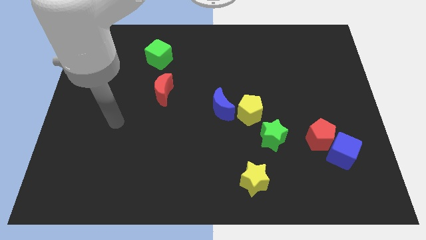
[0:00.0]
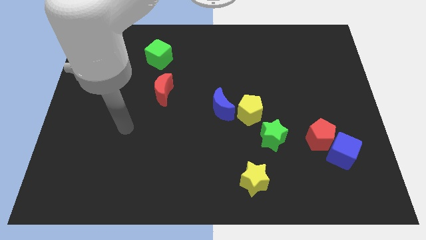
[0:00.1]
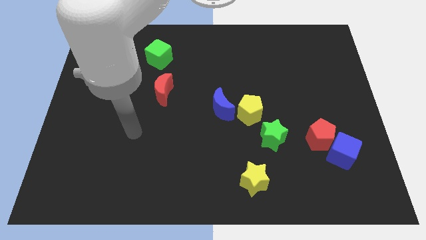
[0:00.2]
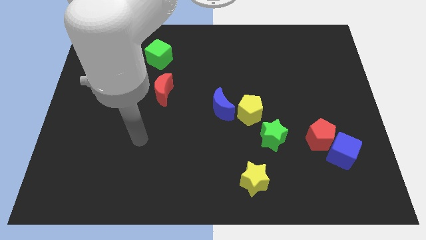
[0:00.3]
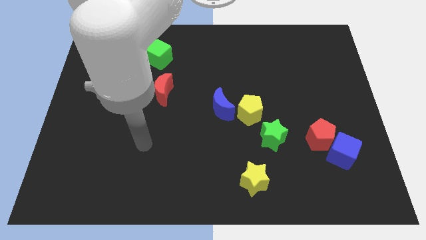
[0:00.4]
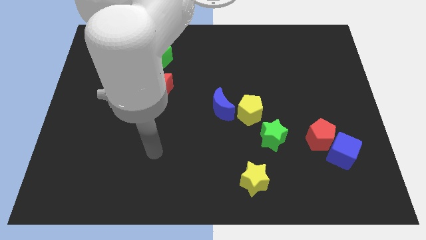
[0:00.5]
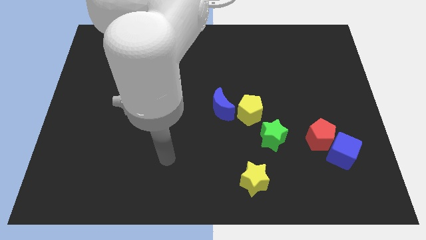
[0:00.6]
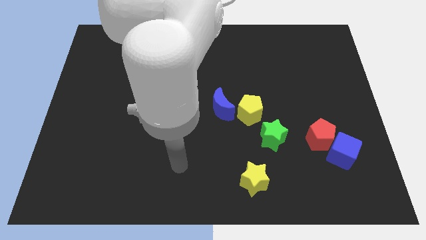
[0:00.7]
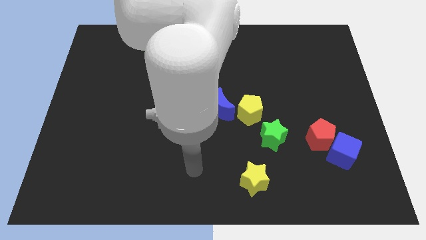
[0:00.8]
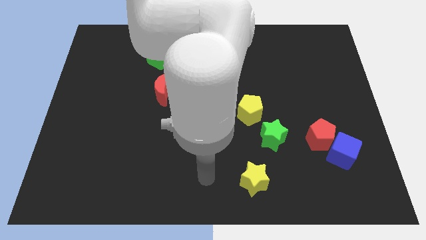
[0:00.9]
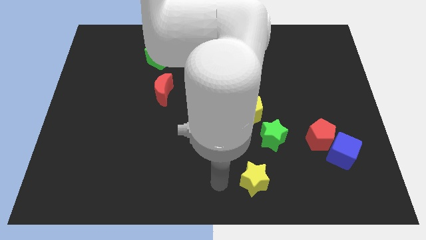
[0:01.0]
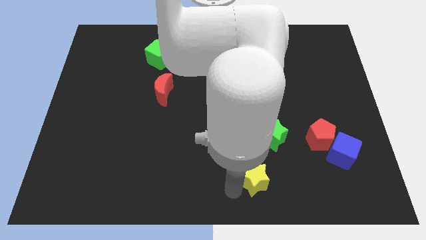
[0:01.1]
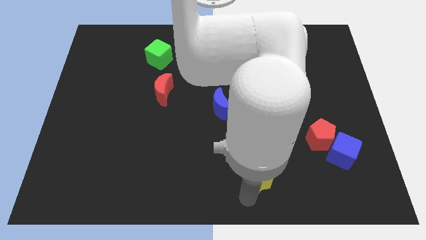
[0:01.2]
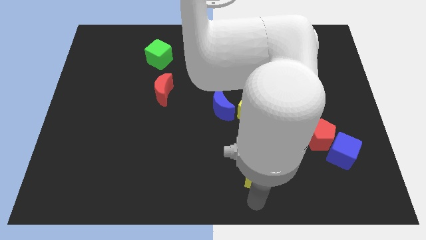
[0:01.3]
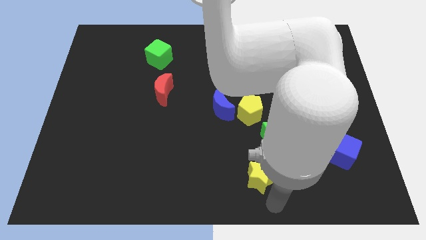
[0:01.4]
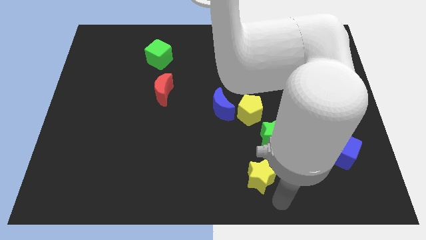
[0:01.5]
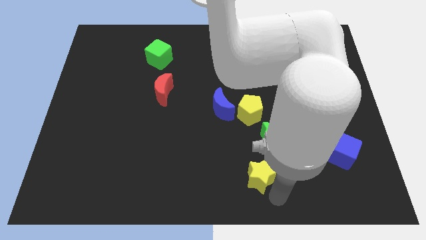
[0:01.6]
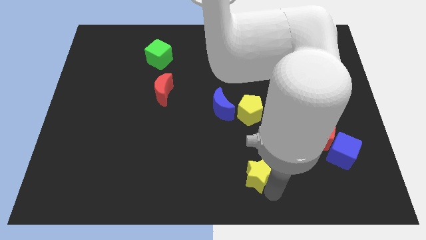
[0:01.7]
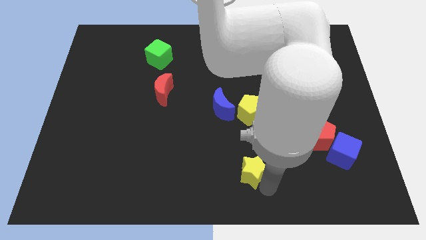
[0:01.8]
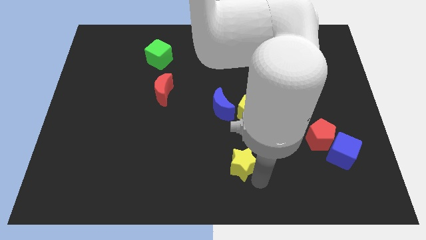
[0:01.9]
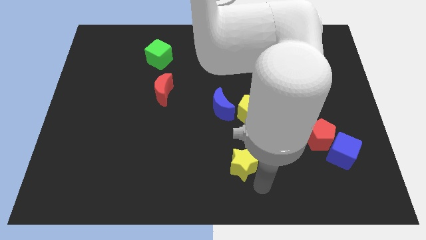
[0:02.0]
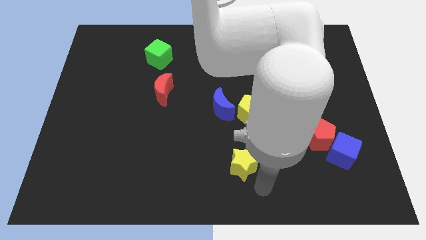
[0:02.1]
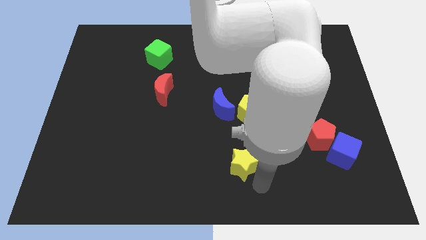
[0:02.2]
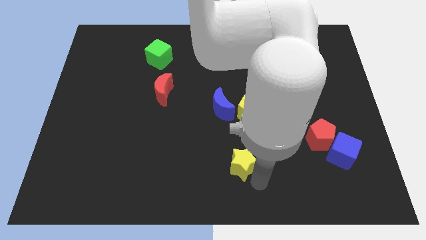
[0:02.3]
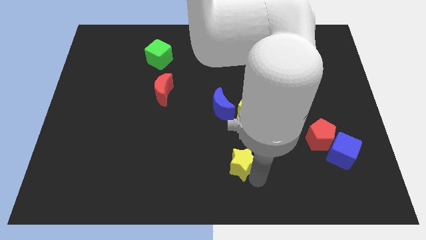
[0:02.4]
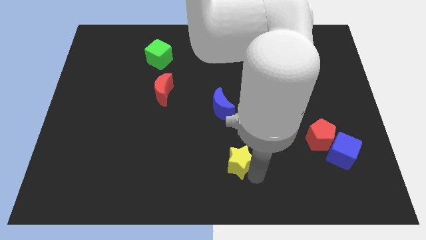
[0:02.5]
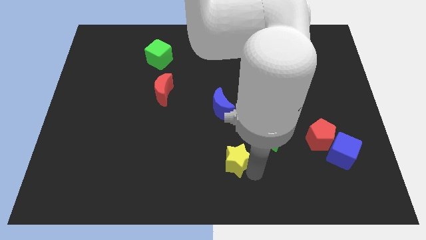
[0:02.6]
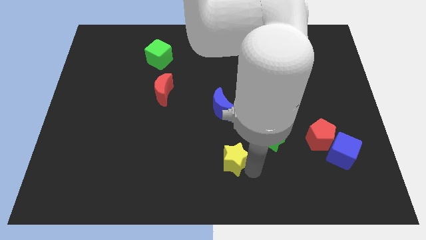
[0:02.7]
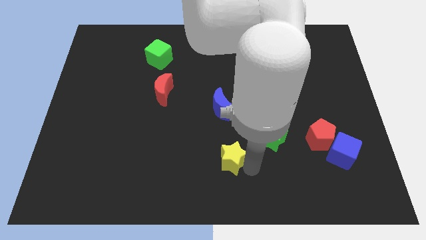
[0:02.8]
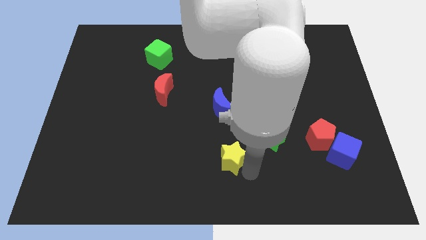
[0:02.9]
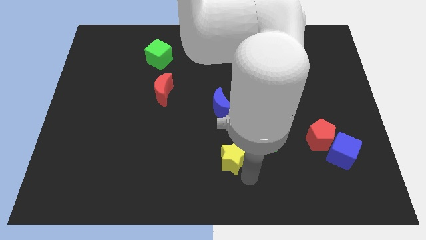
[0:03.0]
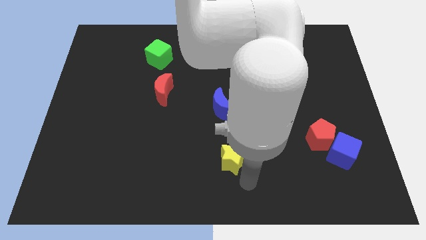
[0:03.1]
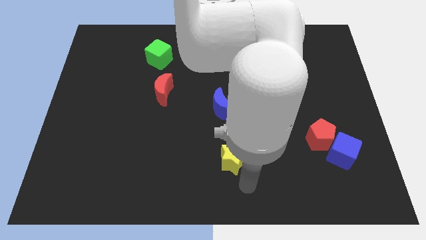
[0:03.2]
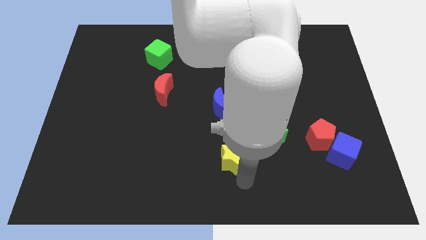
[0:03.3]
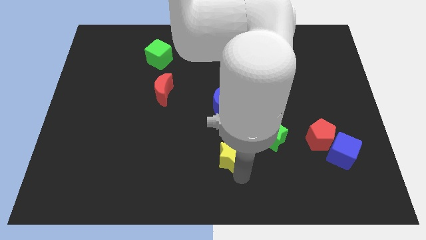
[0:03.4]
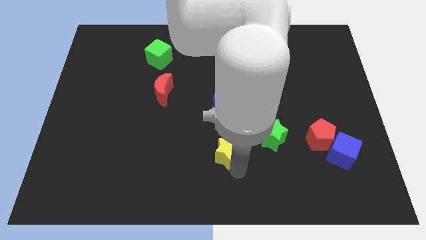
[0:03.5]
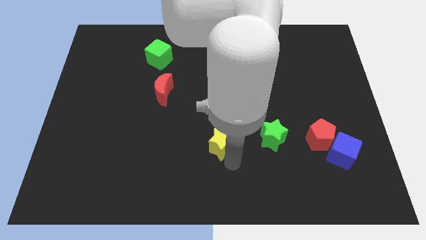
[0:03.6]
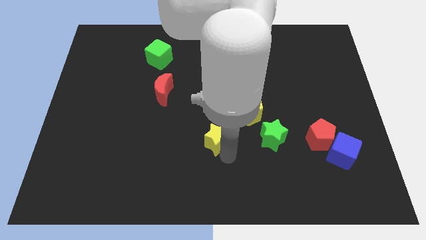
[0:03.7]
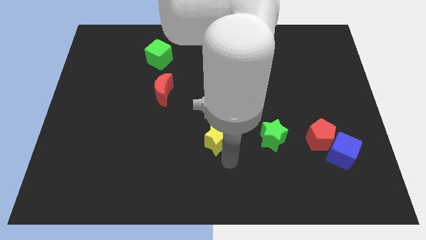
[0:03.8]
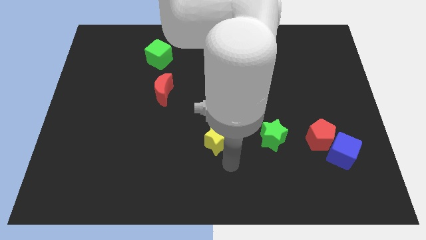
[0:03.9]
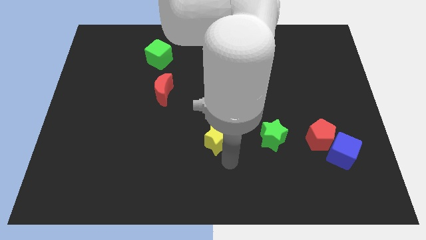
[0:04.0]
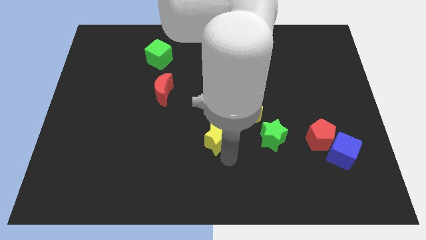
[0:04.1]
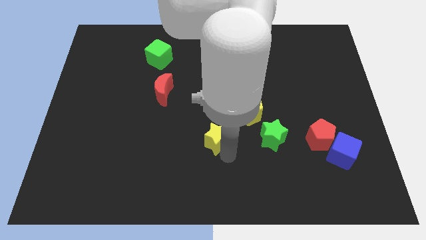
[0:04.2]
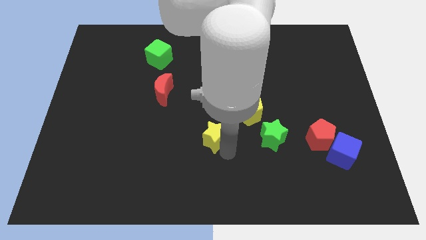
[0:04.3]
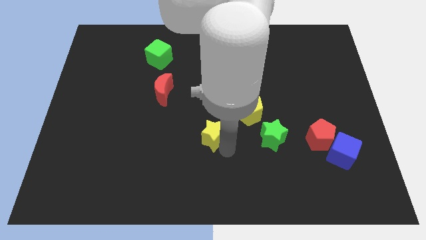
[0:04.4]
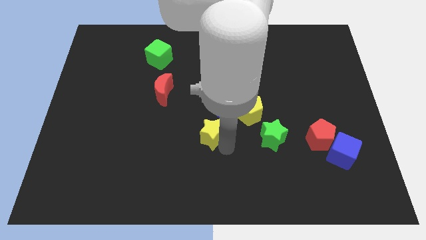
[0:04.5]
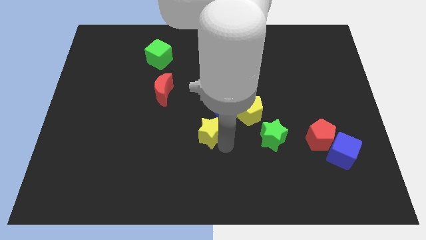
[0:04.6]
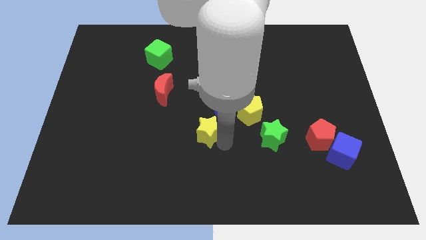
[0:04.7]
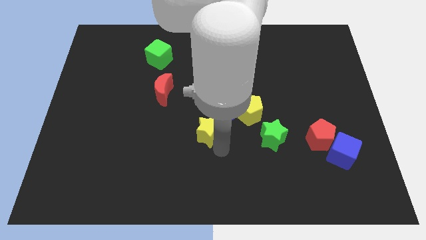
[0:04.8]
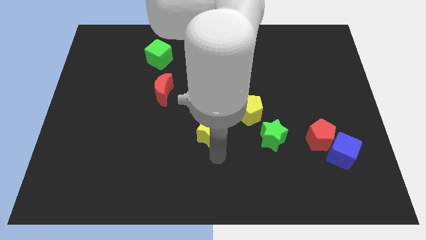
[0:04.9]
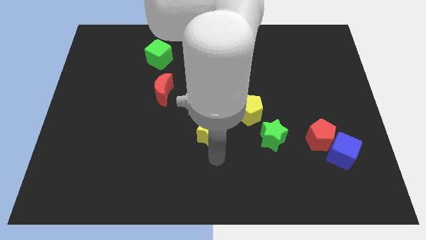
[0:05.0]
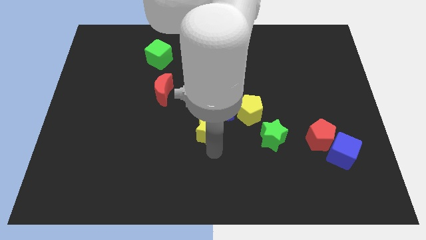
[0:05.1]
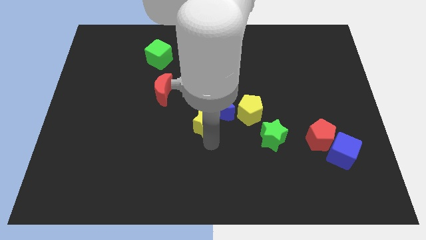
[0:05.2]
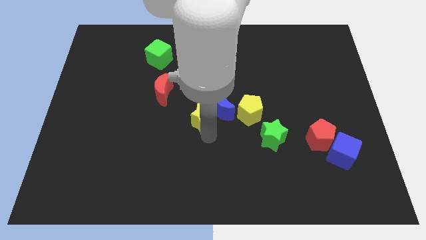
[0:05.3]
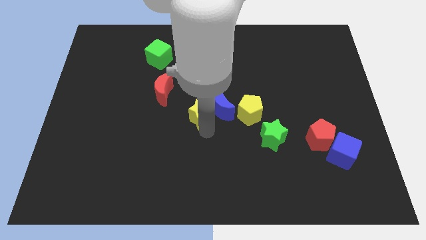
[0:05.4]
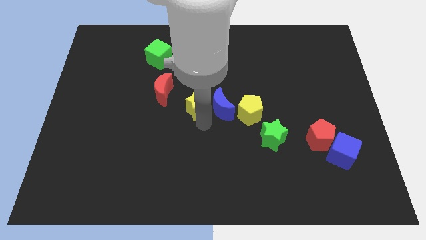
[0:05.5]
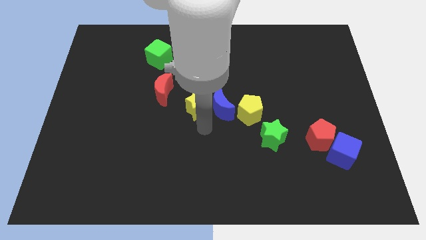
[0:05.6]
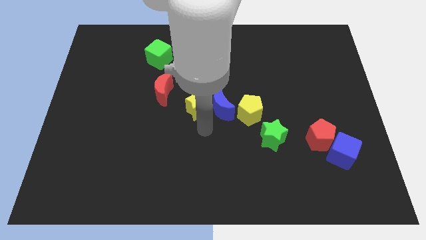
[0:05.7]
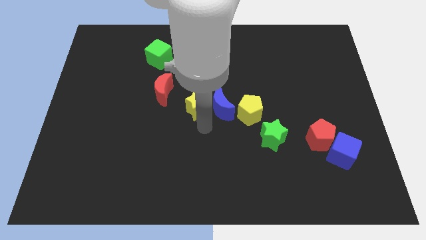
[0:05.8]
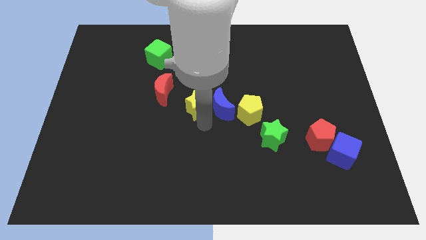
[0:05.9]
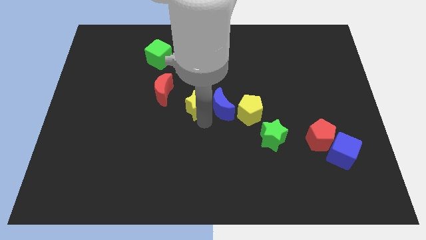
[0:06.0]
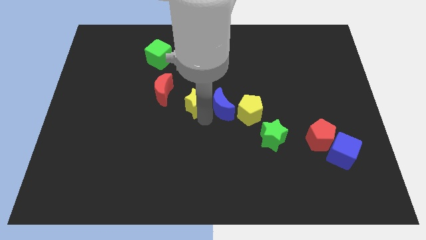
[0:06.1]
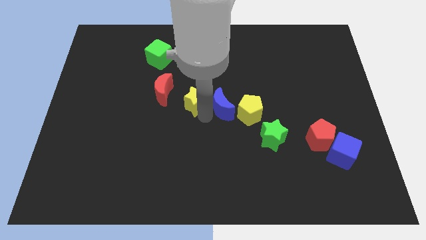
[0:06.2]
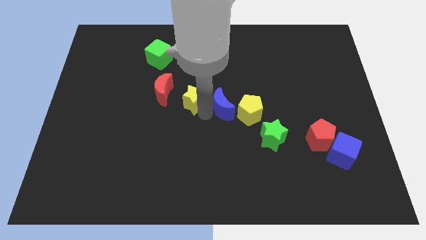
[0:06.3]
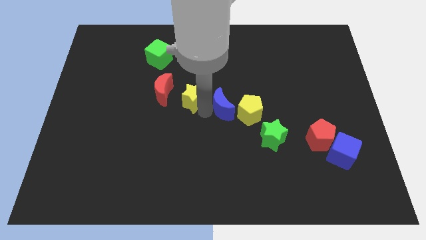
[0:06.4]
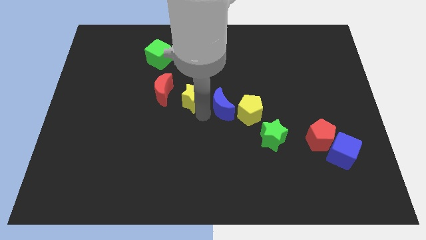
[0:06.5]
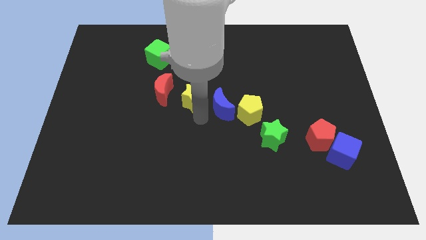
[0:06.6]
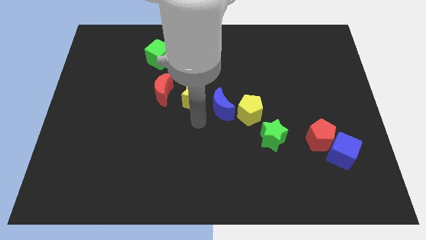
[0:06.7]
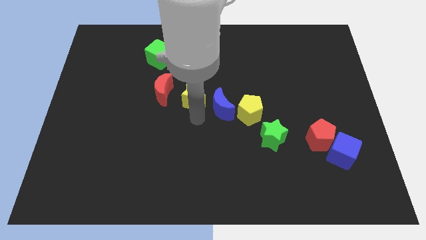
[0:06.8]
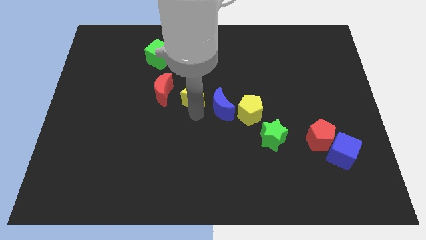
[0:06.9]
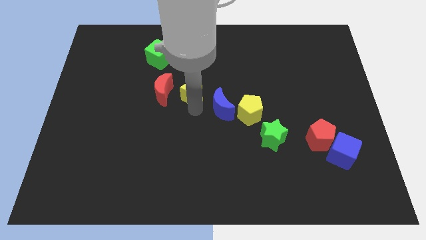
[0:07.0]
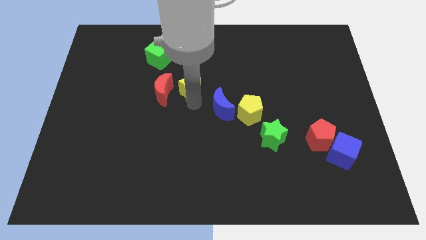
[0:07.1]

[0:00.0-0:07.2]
move the yellow star to the top right of the red moon
